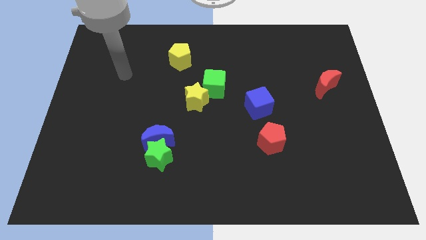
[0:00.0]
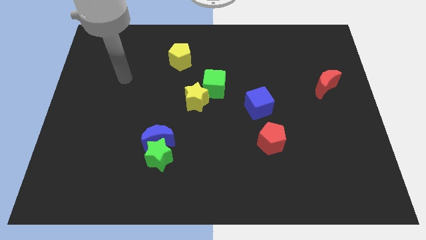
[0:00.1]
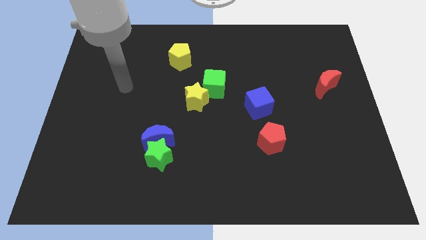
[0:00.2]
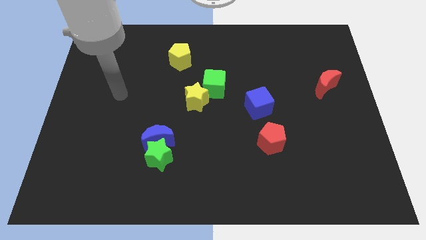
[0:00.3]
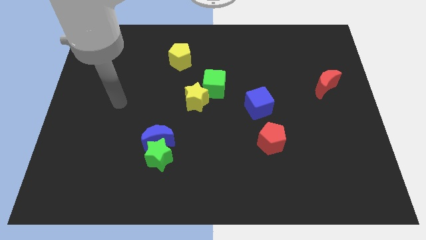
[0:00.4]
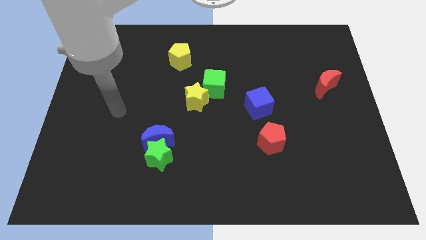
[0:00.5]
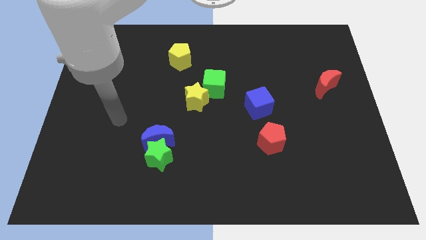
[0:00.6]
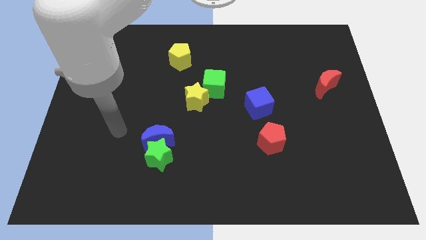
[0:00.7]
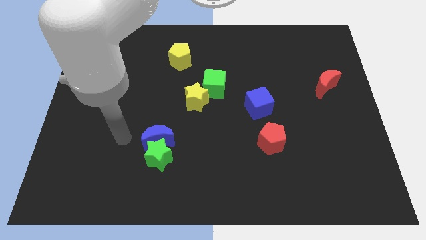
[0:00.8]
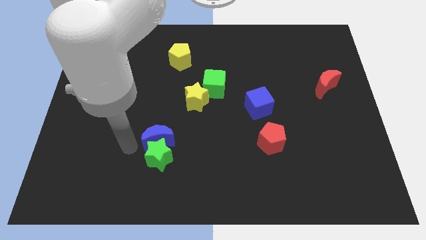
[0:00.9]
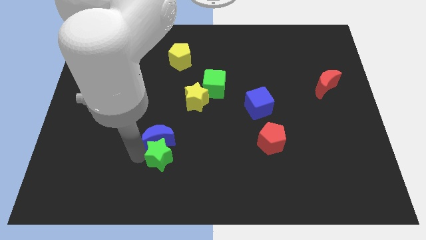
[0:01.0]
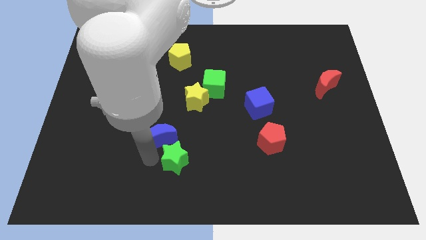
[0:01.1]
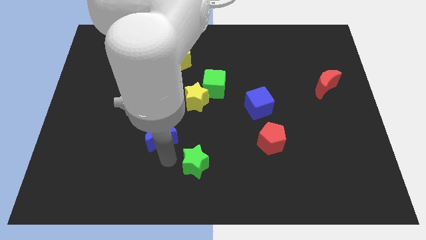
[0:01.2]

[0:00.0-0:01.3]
pull the blue moon apart from the green star

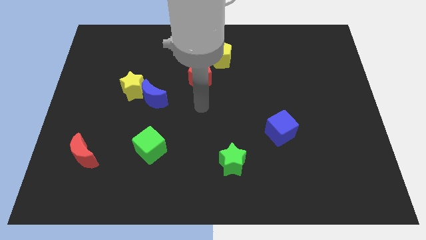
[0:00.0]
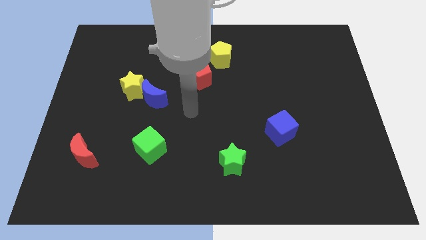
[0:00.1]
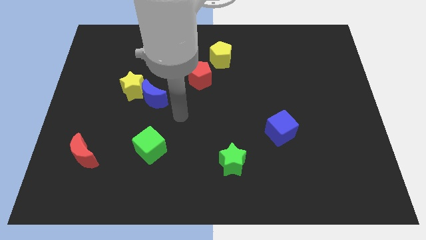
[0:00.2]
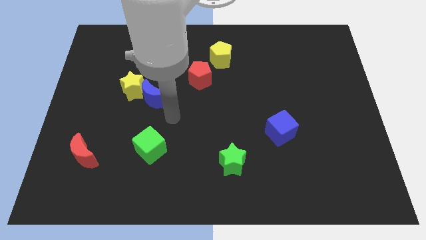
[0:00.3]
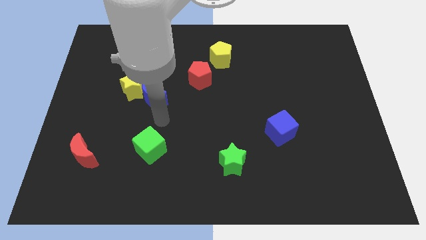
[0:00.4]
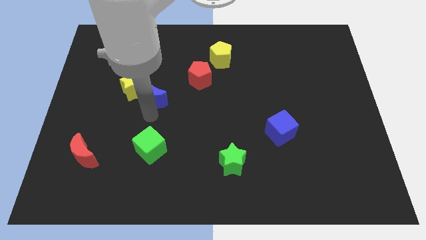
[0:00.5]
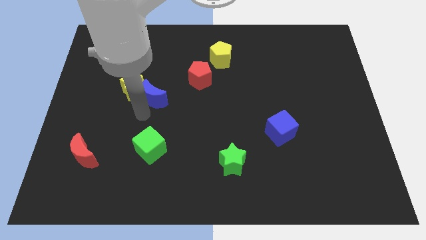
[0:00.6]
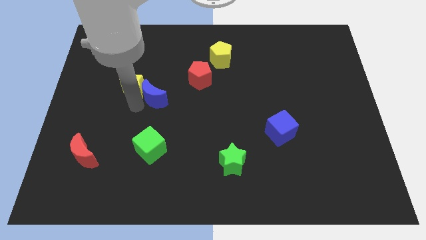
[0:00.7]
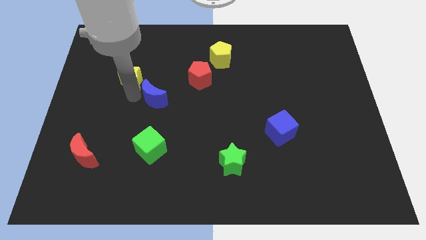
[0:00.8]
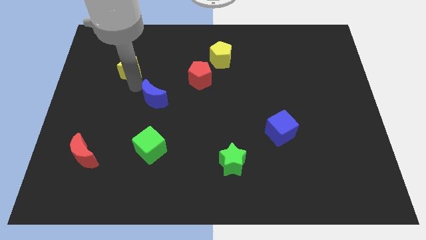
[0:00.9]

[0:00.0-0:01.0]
separate the blue moon from the yellow star

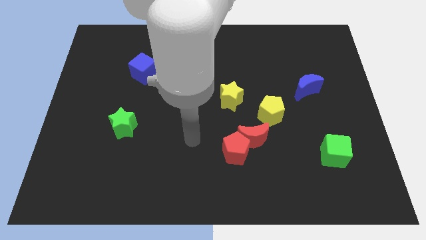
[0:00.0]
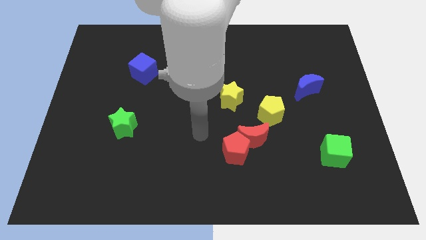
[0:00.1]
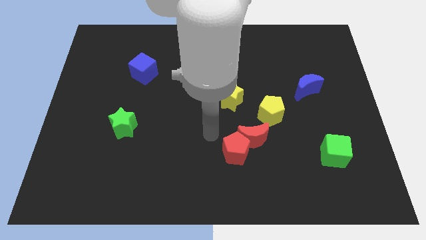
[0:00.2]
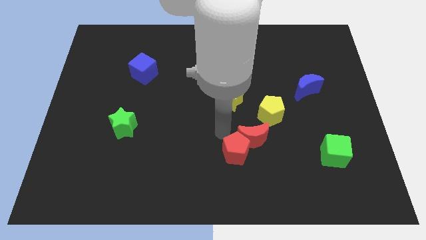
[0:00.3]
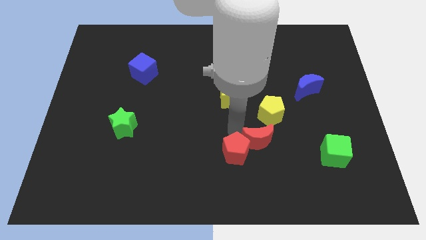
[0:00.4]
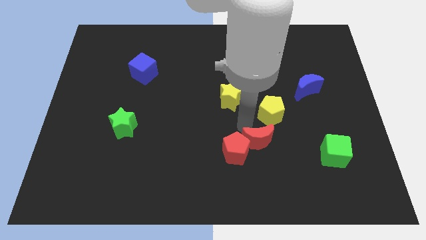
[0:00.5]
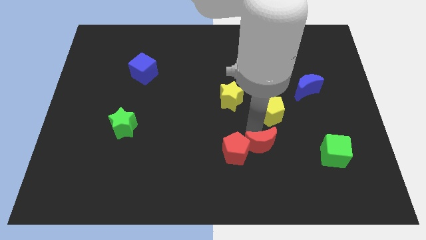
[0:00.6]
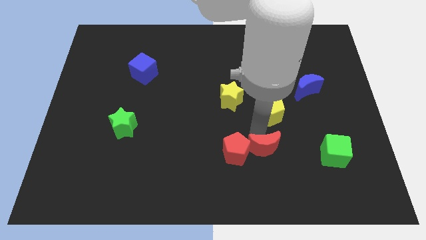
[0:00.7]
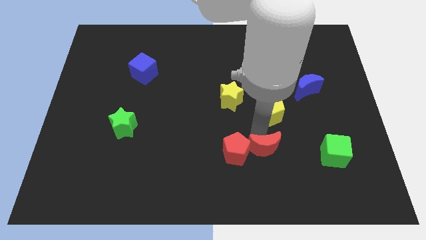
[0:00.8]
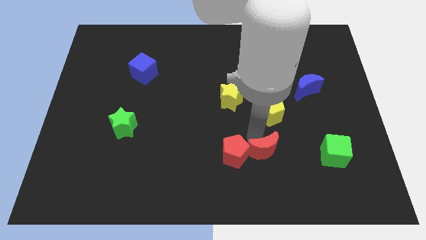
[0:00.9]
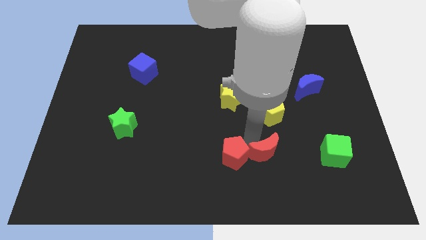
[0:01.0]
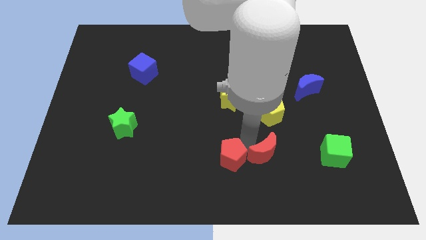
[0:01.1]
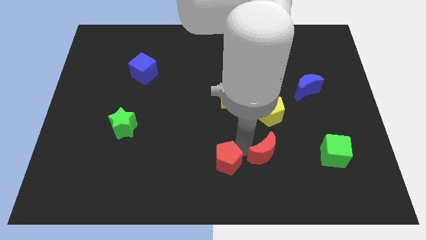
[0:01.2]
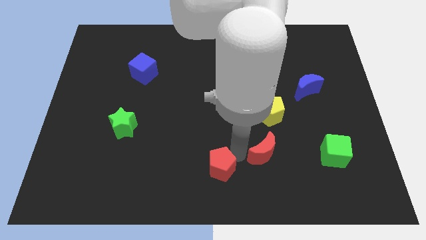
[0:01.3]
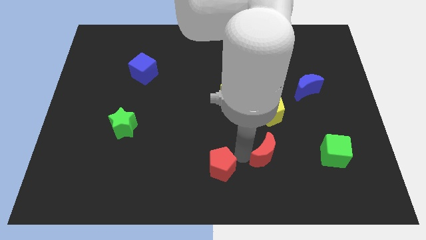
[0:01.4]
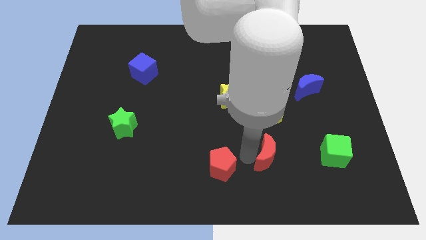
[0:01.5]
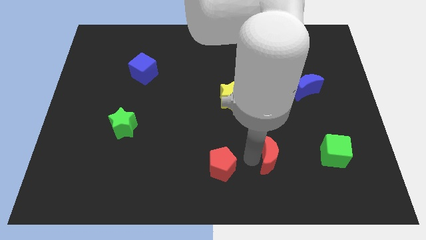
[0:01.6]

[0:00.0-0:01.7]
pull the red pentagon apart from the red moon

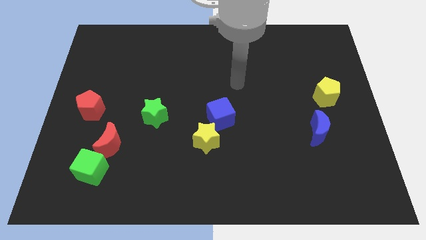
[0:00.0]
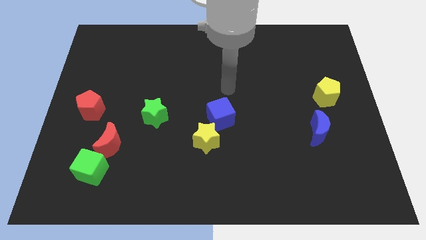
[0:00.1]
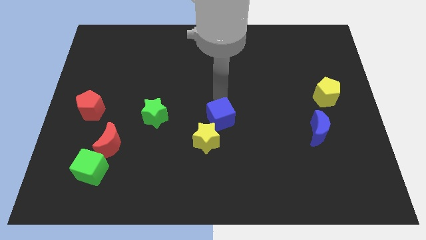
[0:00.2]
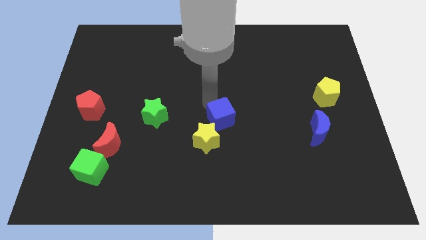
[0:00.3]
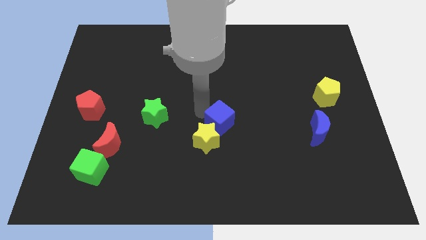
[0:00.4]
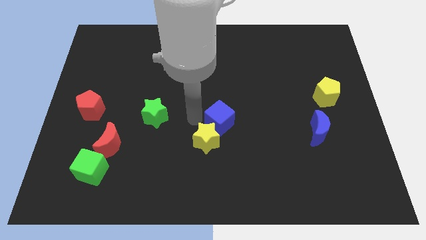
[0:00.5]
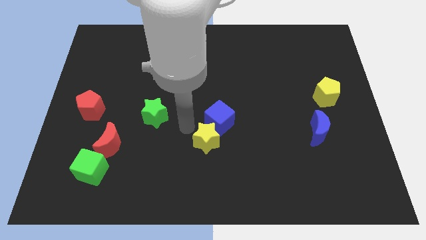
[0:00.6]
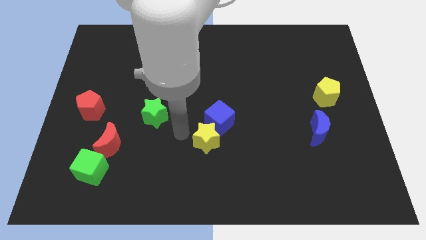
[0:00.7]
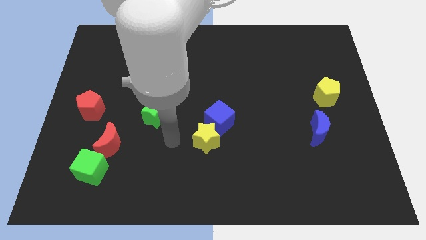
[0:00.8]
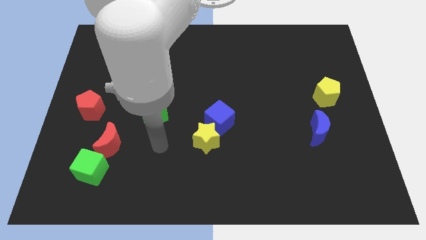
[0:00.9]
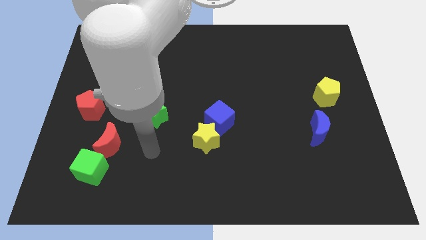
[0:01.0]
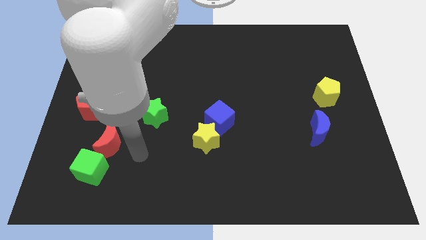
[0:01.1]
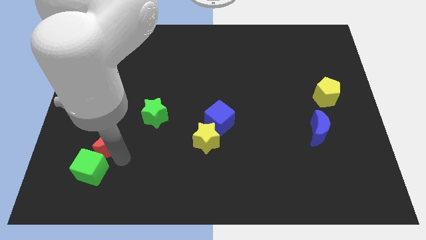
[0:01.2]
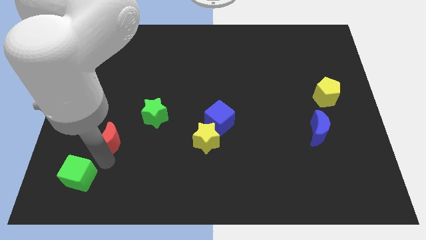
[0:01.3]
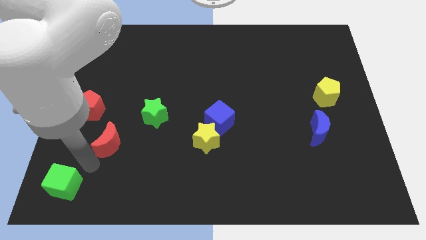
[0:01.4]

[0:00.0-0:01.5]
separate the red moon from the green cube

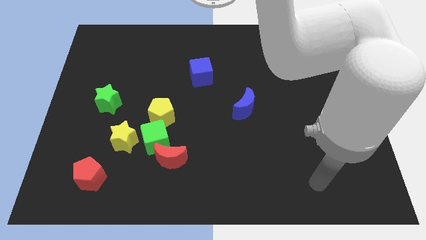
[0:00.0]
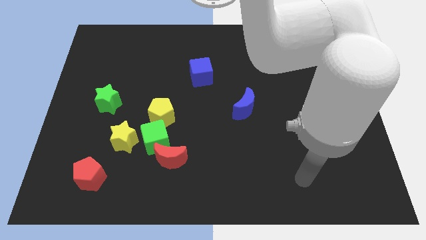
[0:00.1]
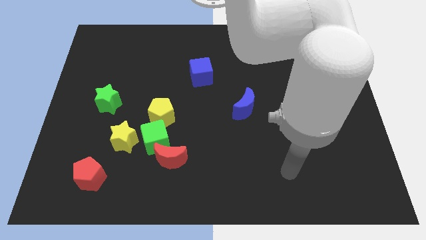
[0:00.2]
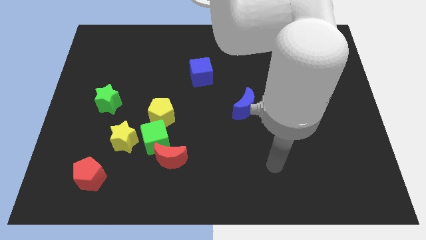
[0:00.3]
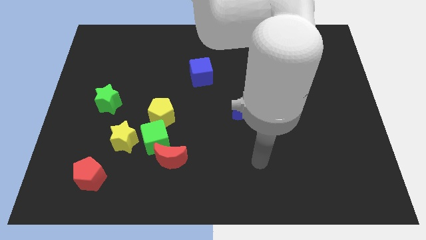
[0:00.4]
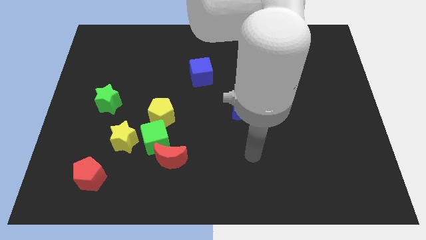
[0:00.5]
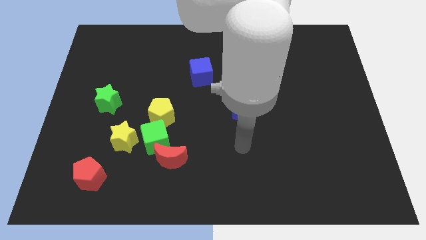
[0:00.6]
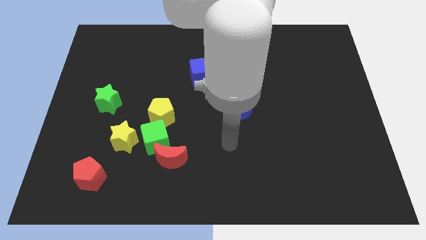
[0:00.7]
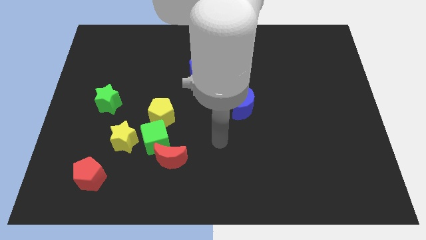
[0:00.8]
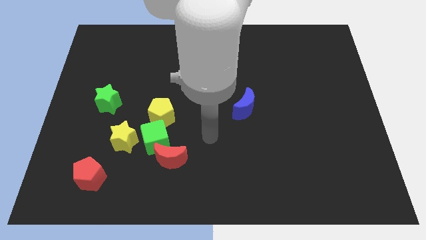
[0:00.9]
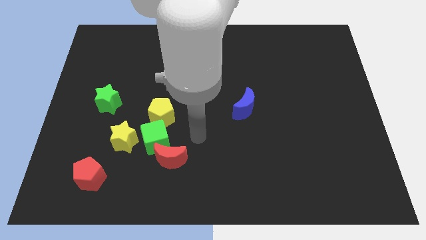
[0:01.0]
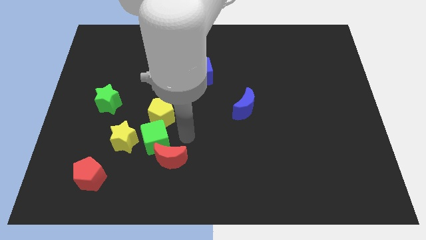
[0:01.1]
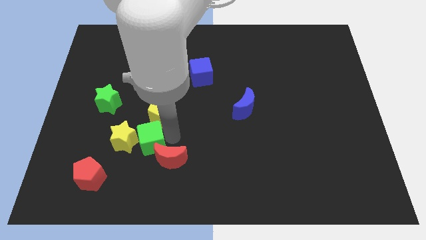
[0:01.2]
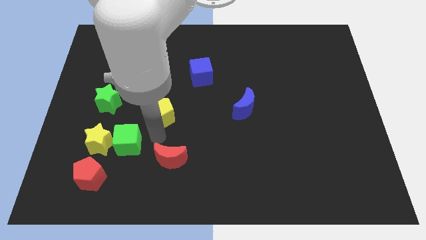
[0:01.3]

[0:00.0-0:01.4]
move the red moon away from the green cube

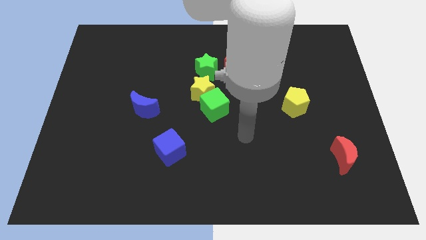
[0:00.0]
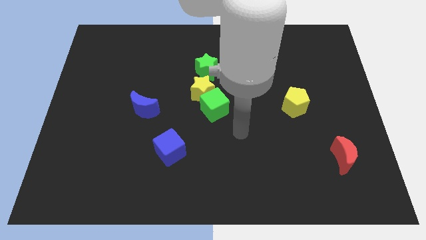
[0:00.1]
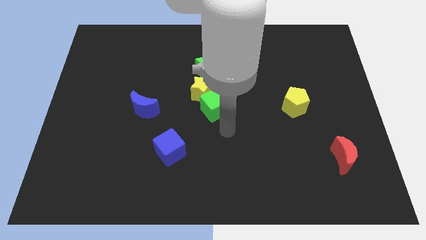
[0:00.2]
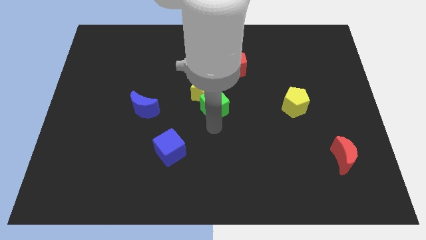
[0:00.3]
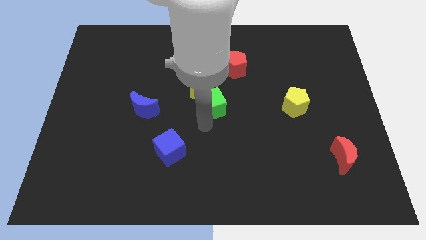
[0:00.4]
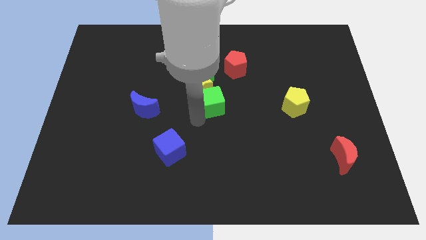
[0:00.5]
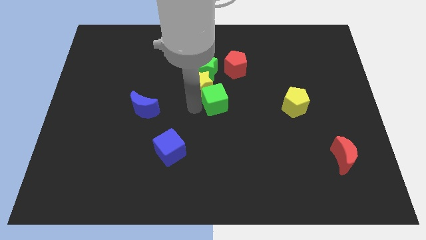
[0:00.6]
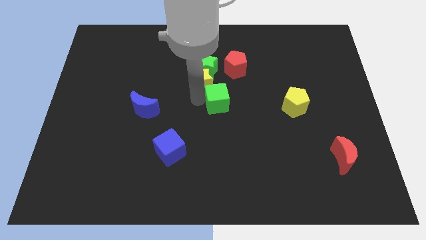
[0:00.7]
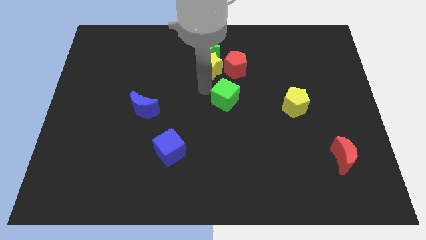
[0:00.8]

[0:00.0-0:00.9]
separate the green cube from the yellow star

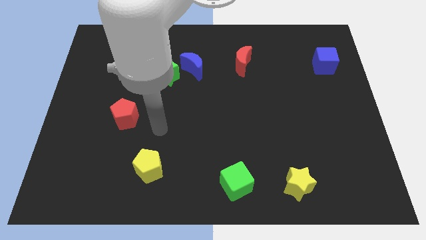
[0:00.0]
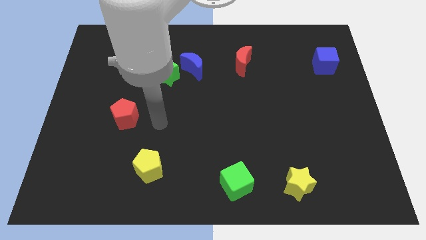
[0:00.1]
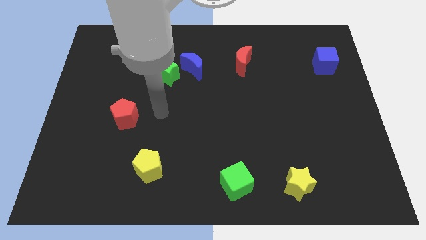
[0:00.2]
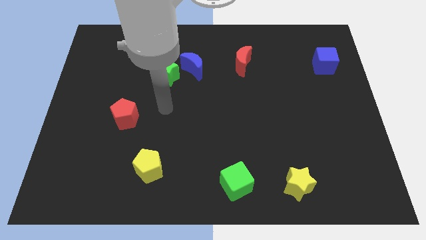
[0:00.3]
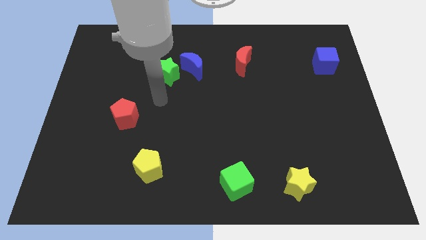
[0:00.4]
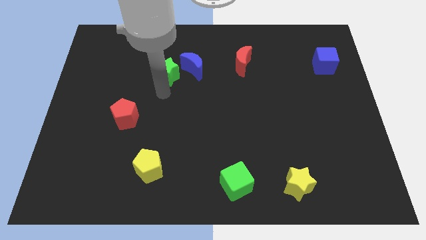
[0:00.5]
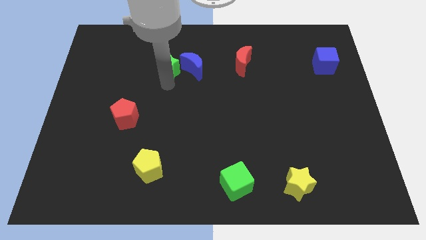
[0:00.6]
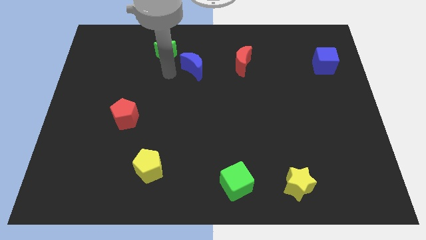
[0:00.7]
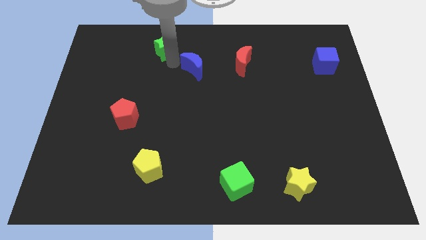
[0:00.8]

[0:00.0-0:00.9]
separate the blue moon from the green star

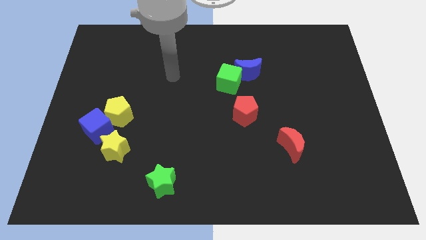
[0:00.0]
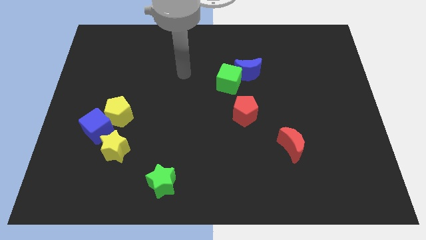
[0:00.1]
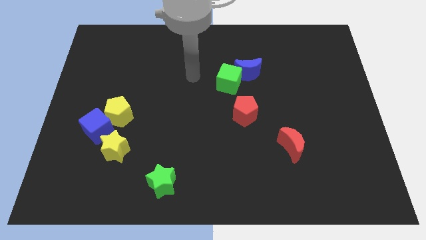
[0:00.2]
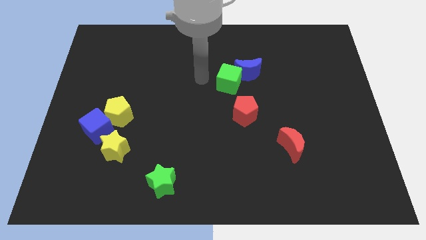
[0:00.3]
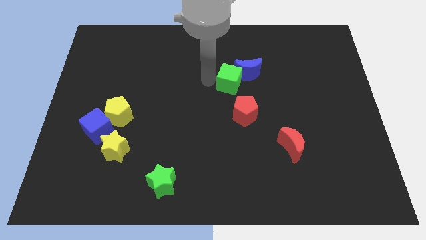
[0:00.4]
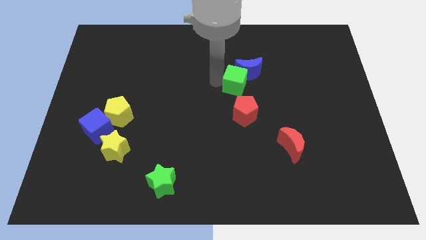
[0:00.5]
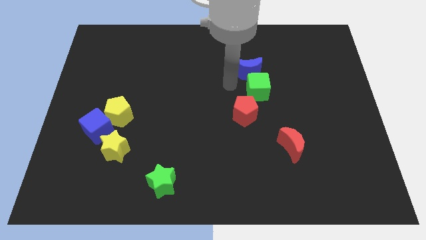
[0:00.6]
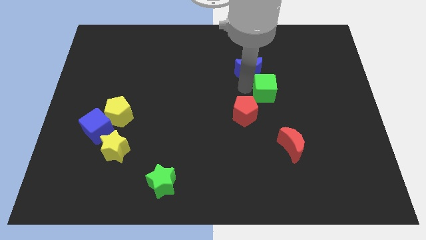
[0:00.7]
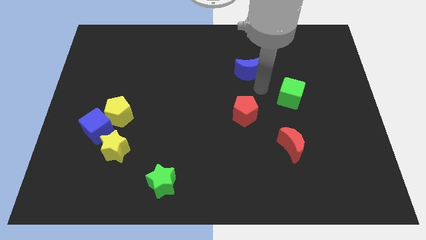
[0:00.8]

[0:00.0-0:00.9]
pull the blue moon apart from the green cube
